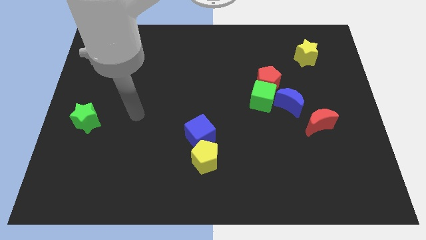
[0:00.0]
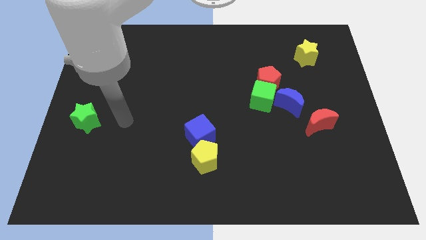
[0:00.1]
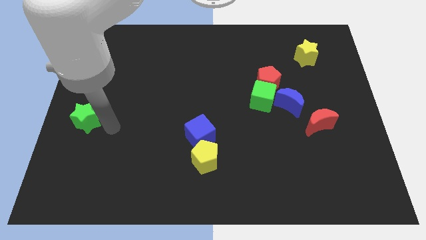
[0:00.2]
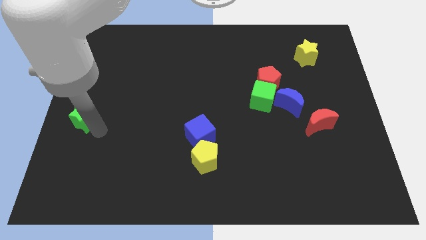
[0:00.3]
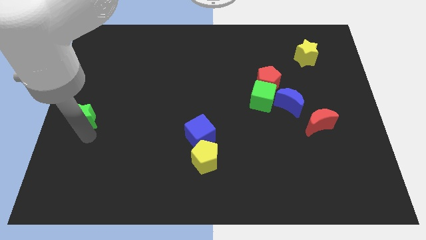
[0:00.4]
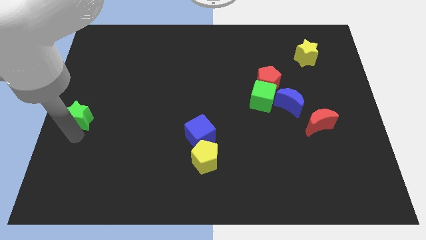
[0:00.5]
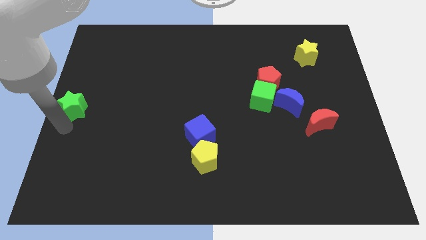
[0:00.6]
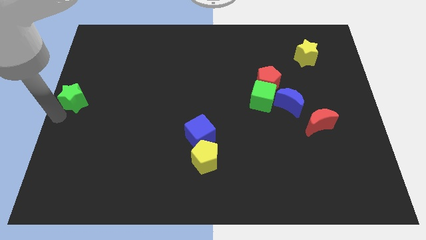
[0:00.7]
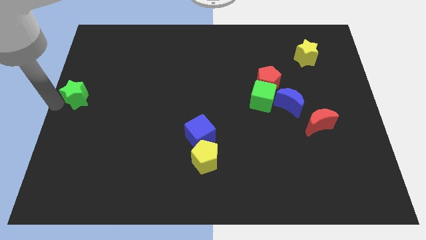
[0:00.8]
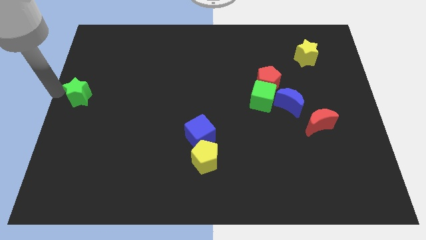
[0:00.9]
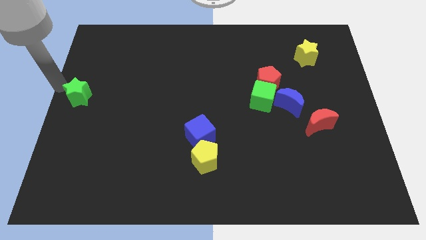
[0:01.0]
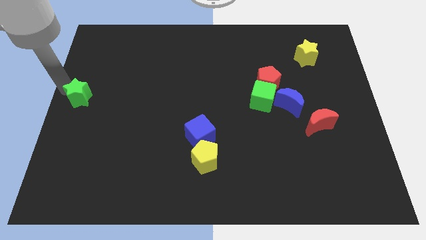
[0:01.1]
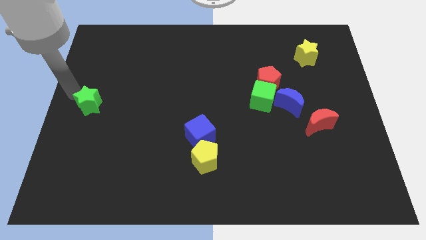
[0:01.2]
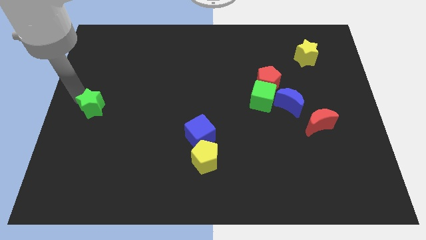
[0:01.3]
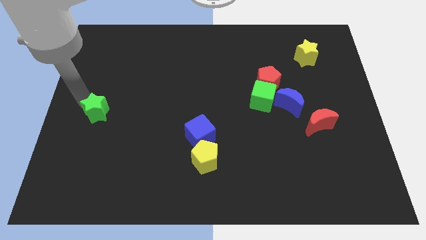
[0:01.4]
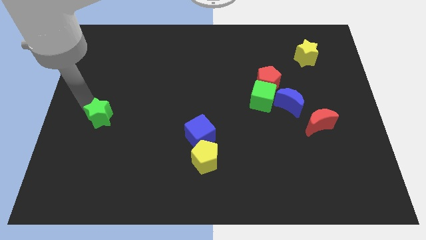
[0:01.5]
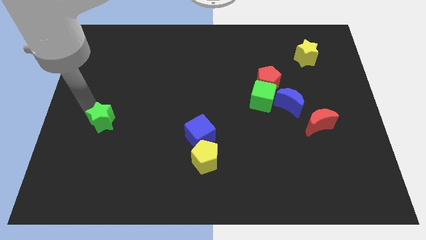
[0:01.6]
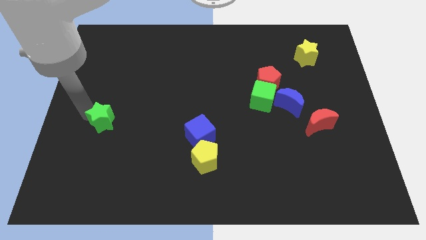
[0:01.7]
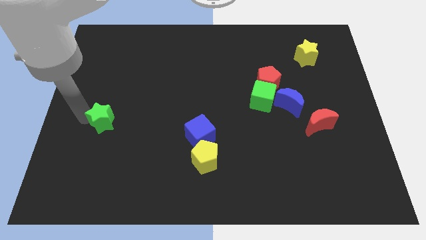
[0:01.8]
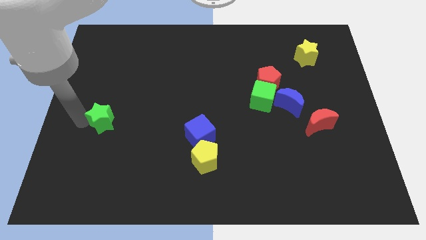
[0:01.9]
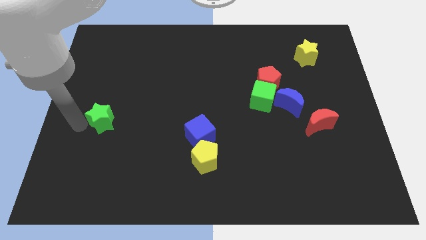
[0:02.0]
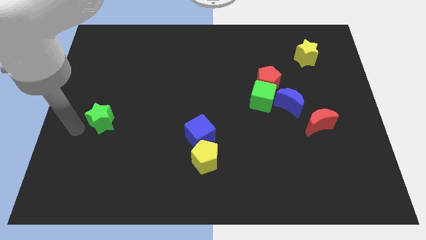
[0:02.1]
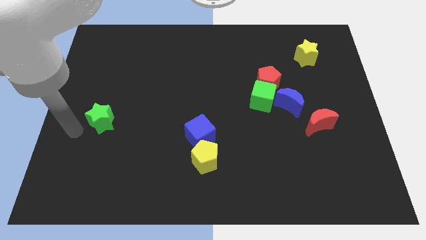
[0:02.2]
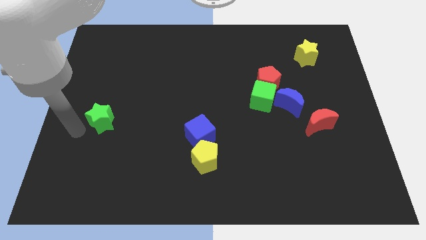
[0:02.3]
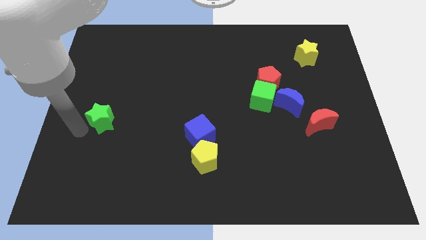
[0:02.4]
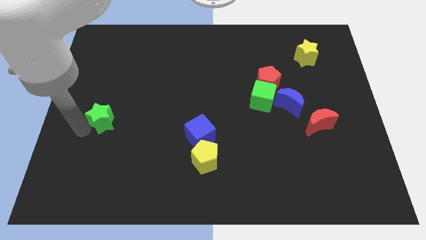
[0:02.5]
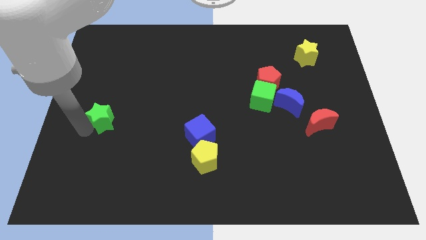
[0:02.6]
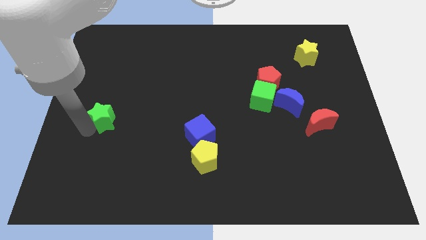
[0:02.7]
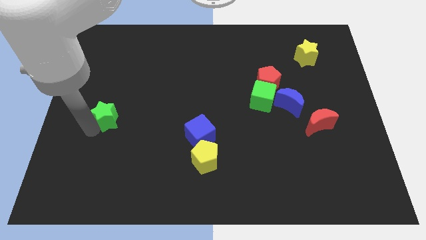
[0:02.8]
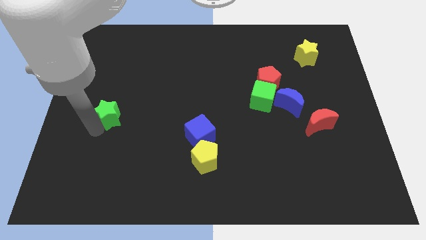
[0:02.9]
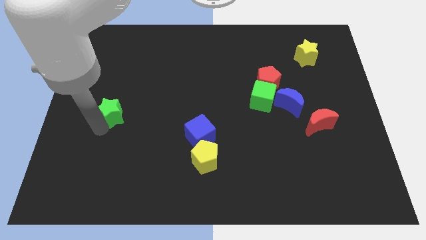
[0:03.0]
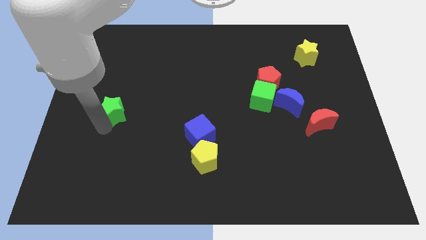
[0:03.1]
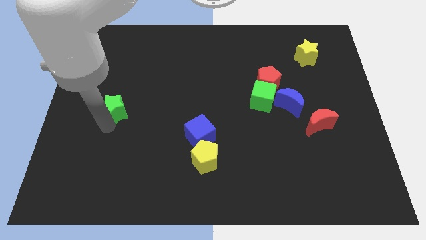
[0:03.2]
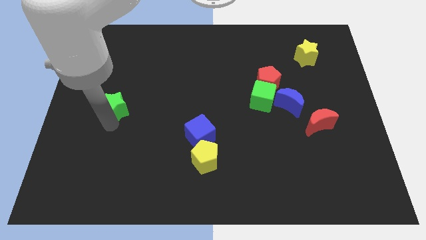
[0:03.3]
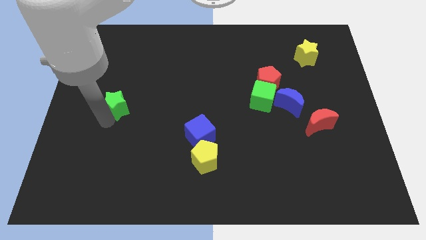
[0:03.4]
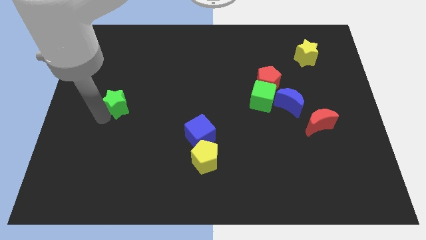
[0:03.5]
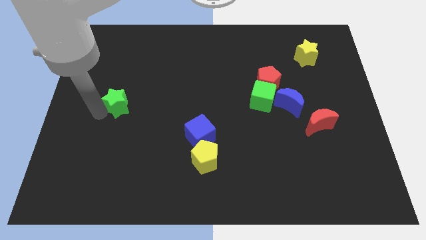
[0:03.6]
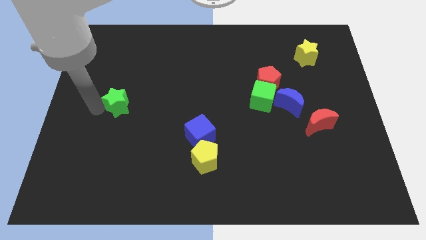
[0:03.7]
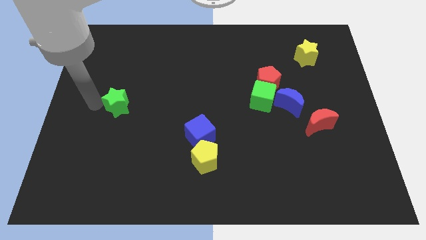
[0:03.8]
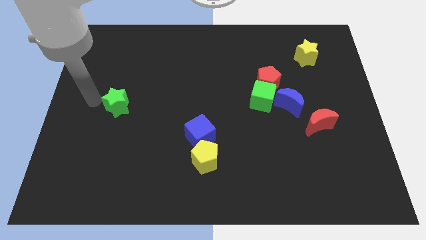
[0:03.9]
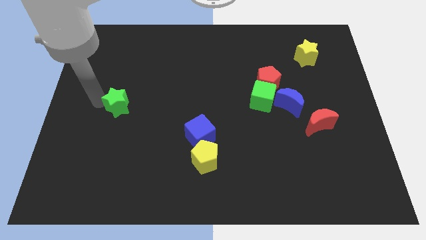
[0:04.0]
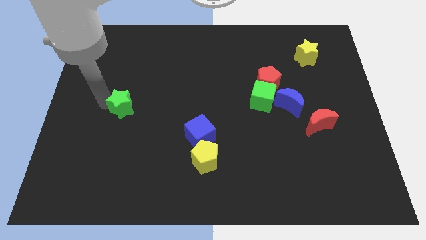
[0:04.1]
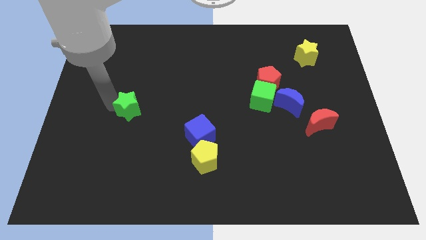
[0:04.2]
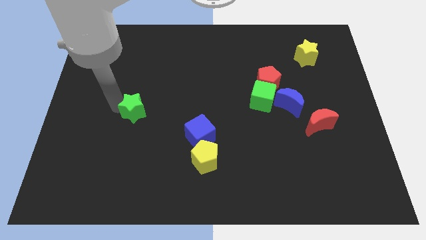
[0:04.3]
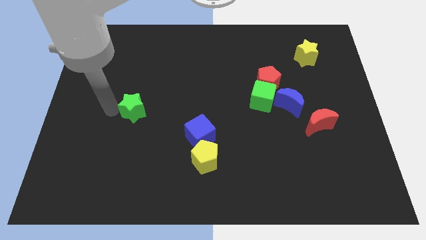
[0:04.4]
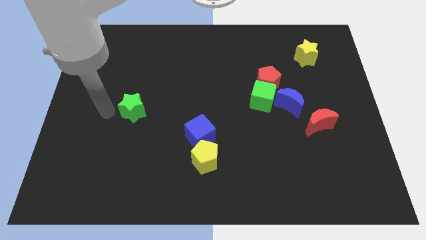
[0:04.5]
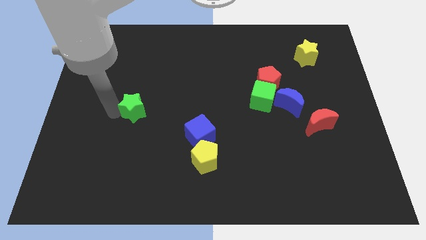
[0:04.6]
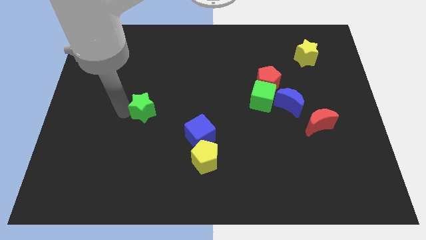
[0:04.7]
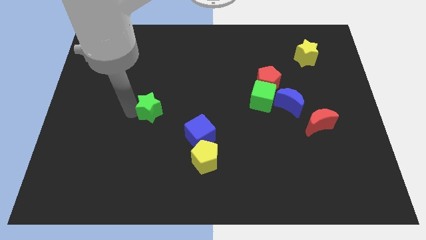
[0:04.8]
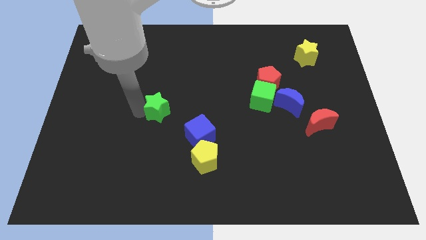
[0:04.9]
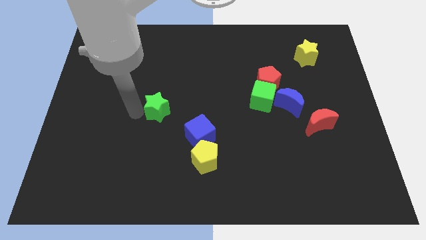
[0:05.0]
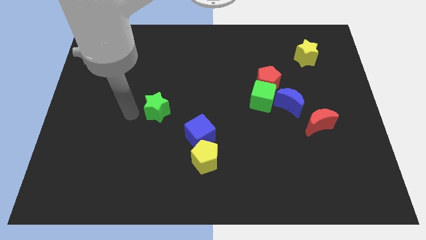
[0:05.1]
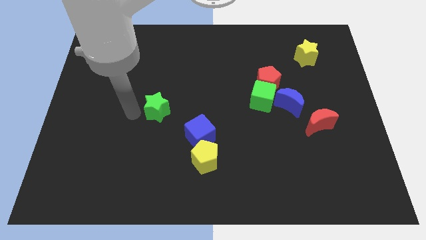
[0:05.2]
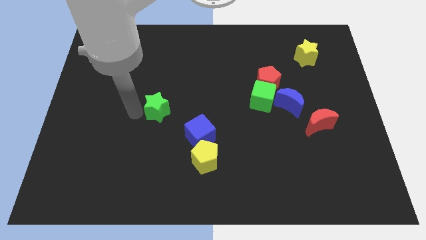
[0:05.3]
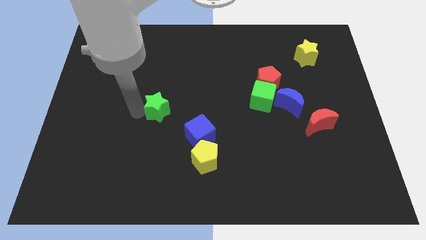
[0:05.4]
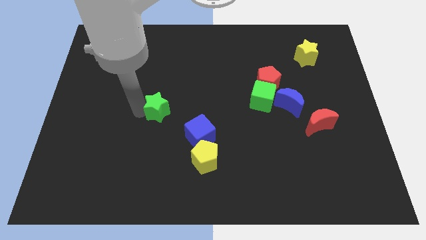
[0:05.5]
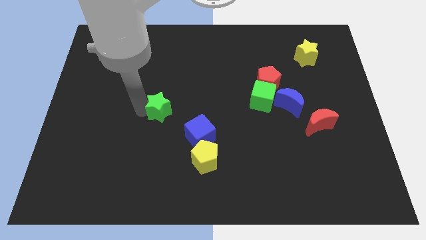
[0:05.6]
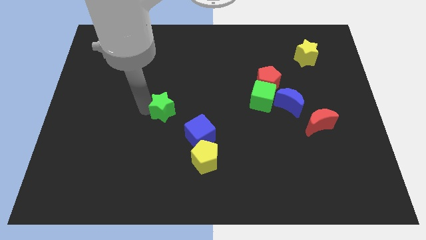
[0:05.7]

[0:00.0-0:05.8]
put the green star to the center

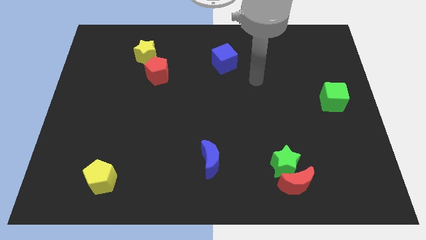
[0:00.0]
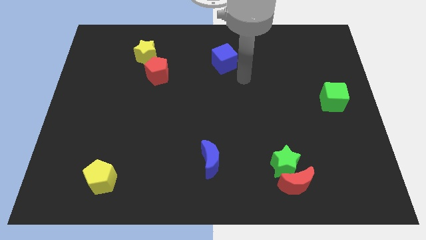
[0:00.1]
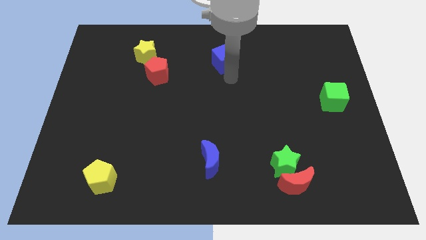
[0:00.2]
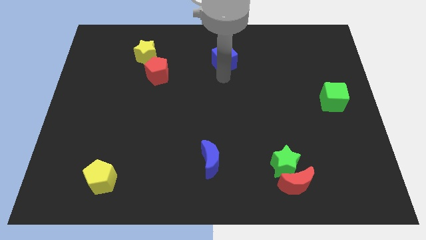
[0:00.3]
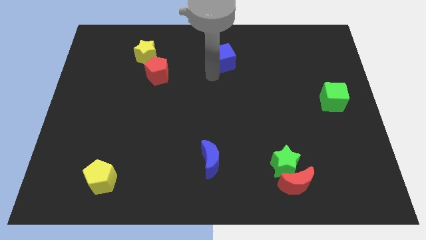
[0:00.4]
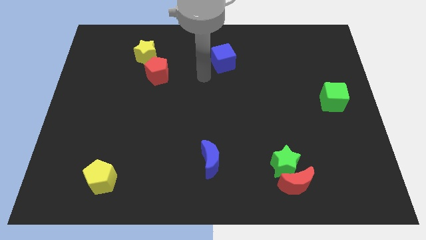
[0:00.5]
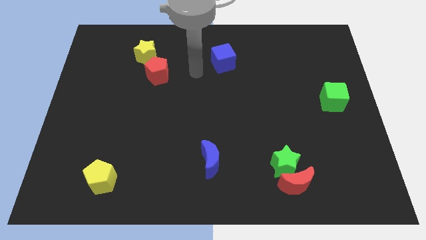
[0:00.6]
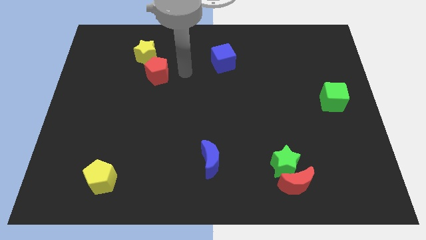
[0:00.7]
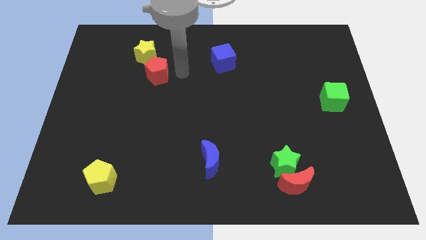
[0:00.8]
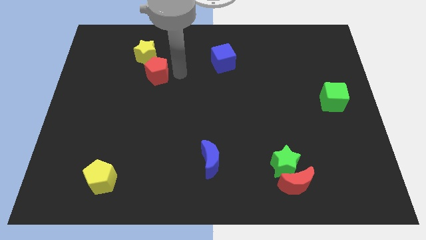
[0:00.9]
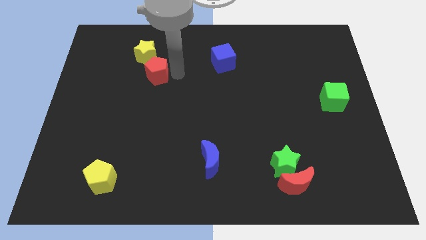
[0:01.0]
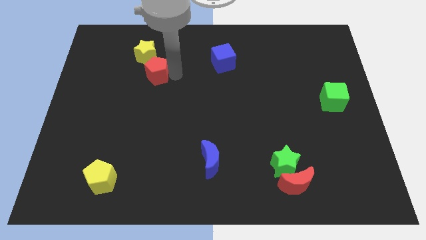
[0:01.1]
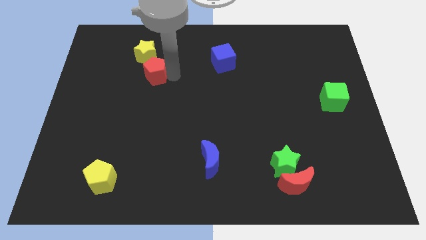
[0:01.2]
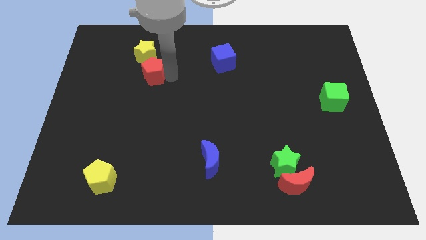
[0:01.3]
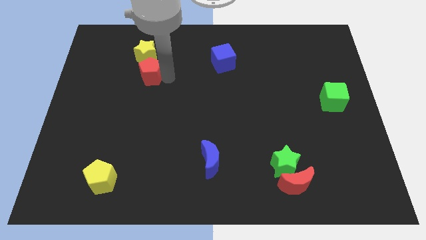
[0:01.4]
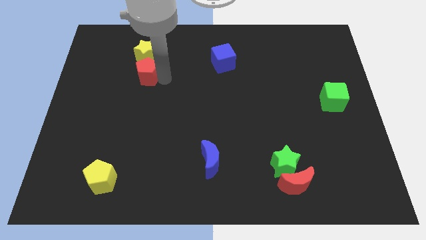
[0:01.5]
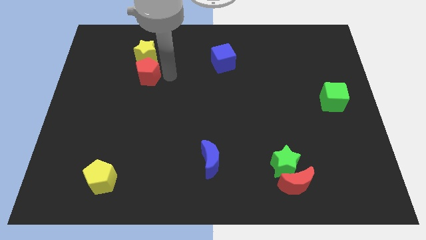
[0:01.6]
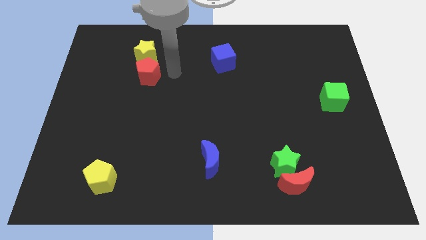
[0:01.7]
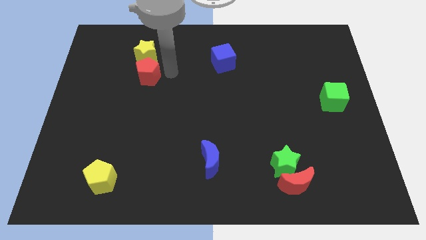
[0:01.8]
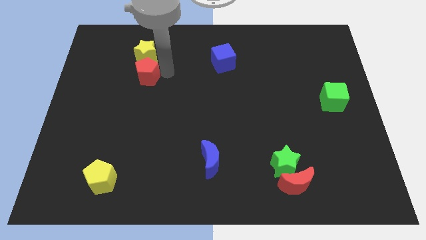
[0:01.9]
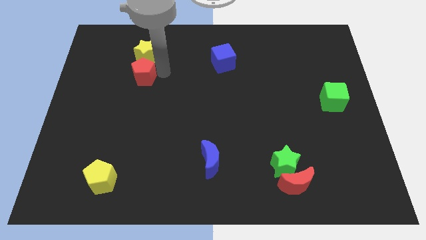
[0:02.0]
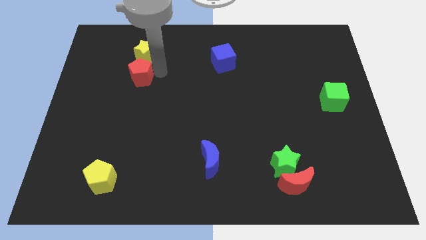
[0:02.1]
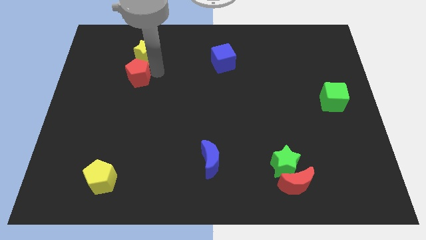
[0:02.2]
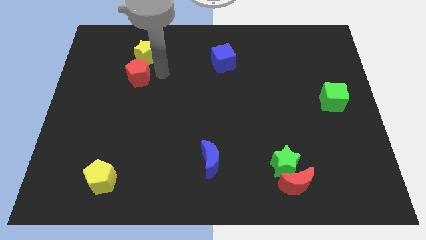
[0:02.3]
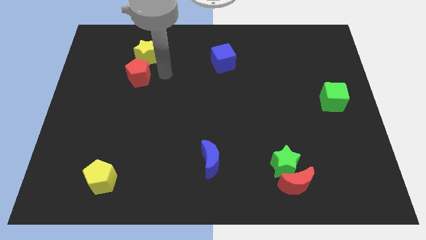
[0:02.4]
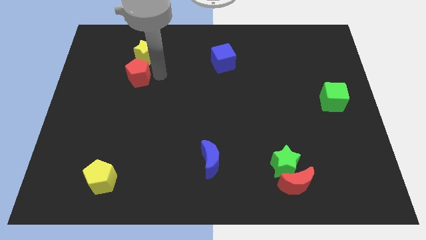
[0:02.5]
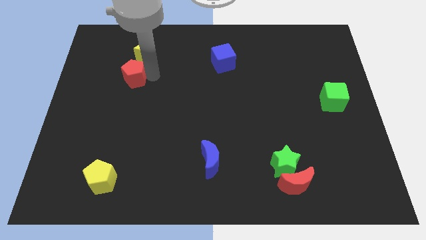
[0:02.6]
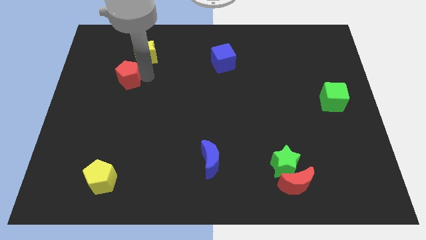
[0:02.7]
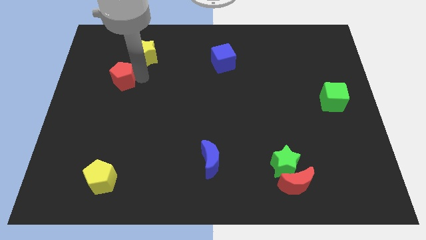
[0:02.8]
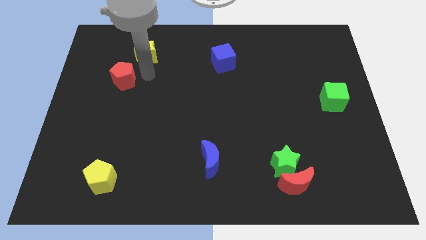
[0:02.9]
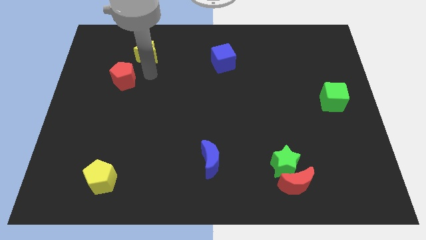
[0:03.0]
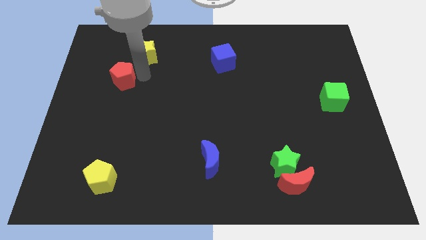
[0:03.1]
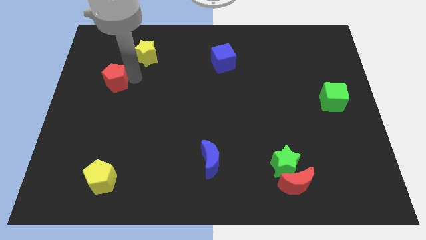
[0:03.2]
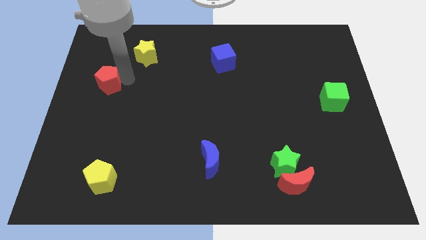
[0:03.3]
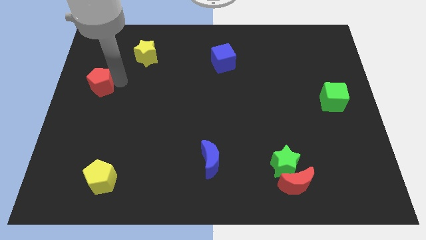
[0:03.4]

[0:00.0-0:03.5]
push the red pentagon to the left side
